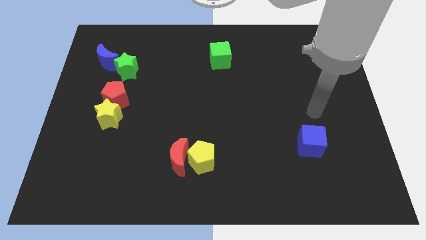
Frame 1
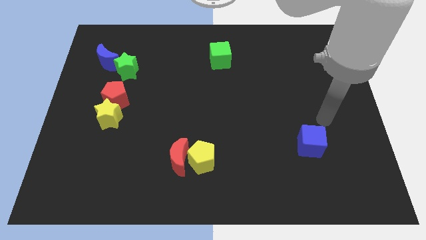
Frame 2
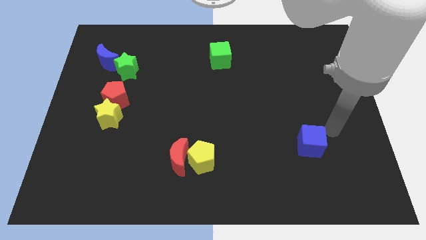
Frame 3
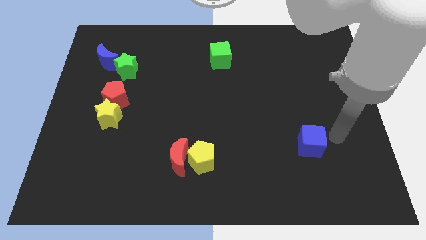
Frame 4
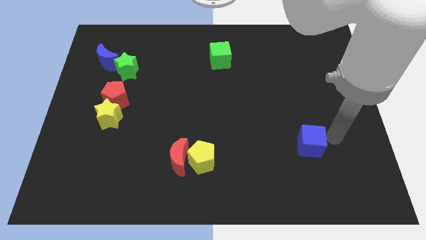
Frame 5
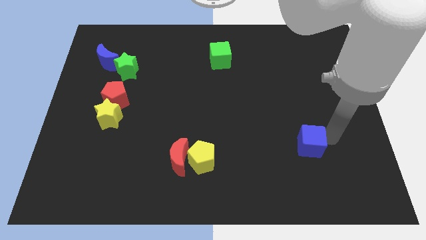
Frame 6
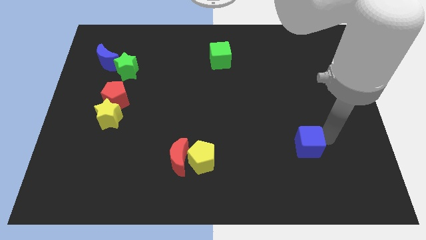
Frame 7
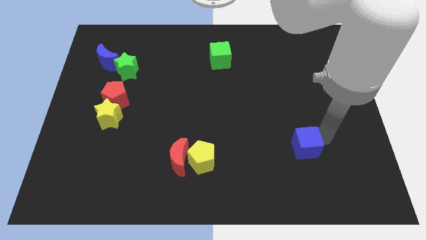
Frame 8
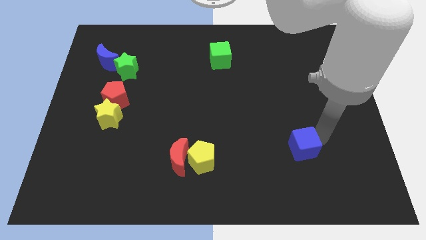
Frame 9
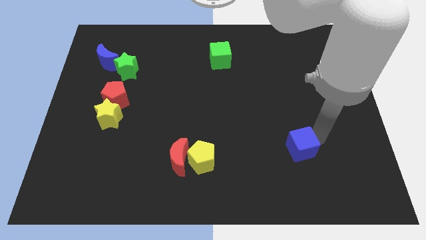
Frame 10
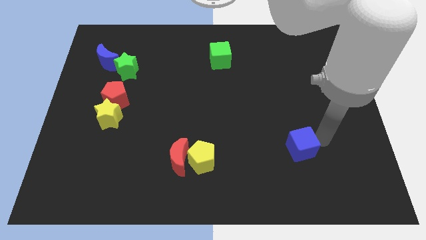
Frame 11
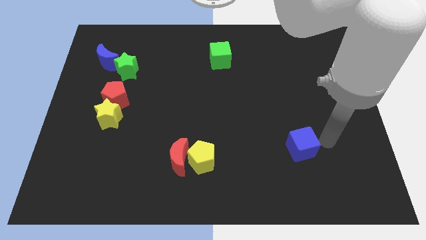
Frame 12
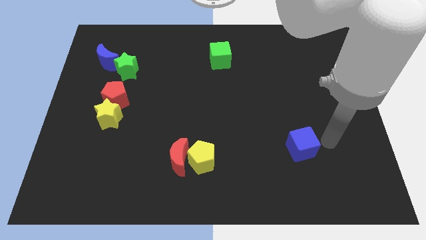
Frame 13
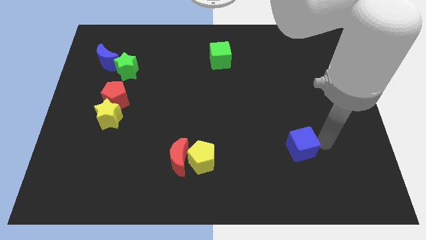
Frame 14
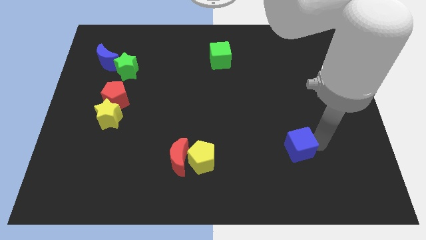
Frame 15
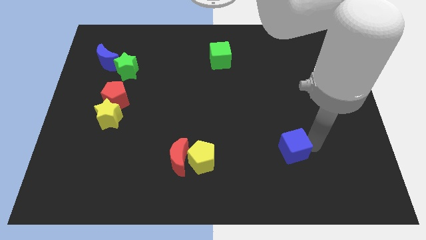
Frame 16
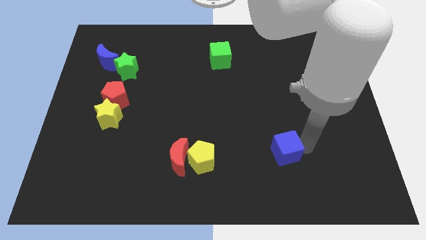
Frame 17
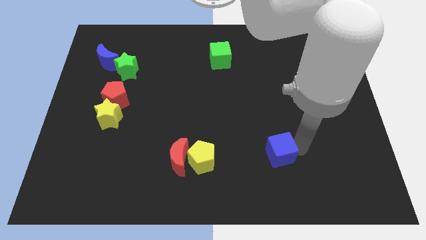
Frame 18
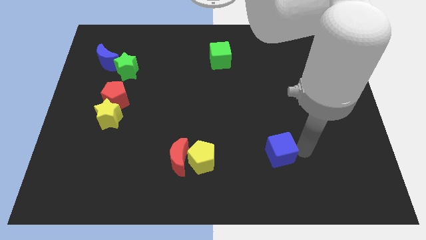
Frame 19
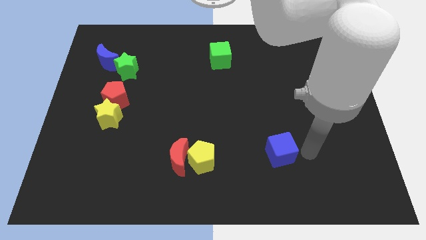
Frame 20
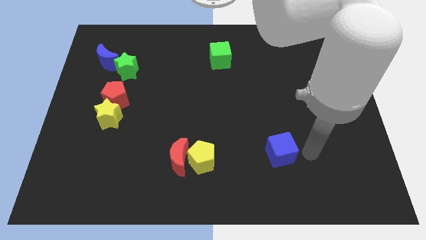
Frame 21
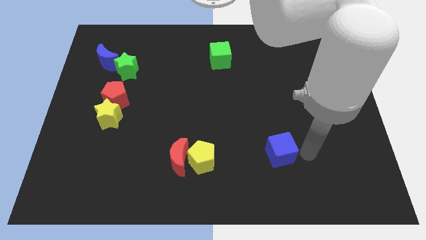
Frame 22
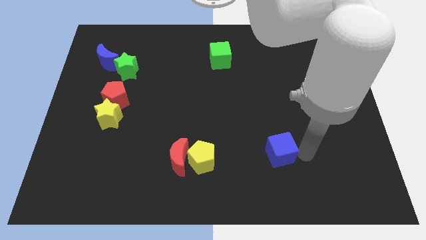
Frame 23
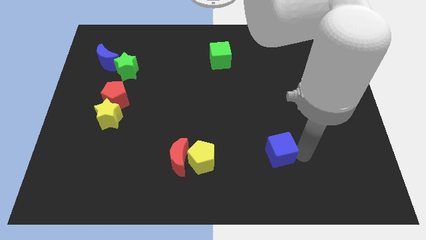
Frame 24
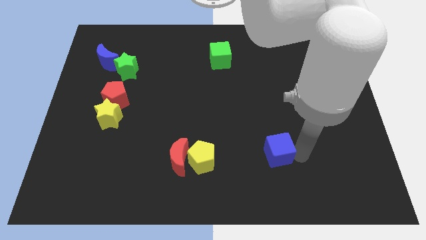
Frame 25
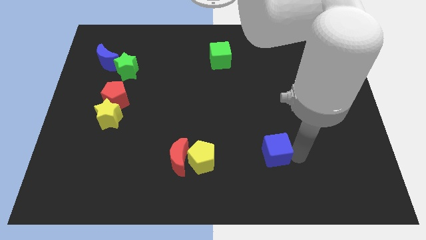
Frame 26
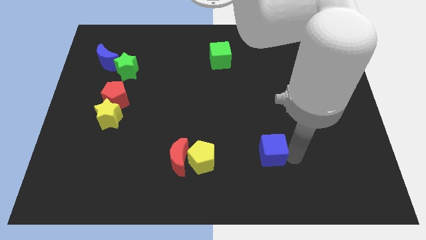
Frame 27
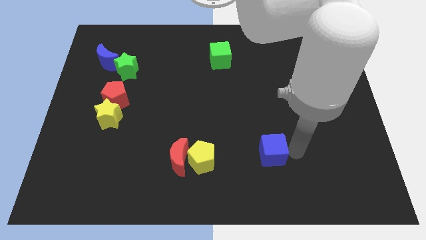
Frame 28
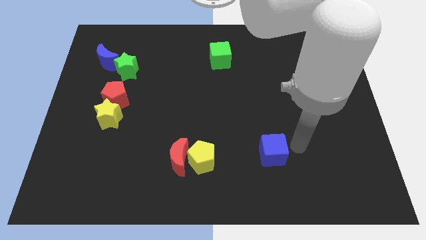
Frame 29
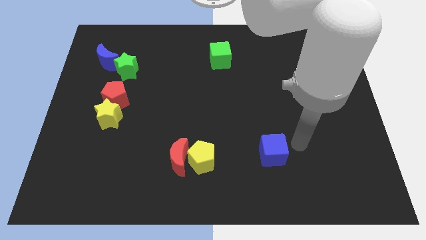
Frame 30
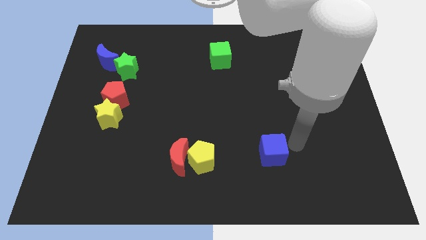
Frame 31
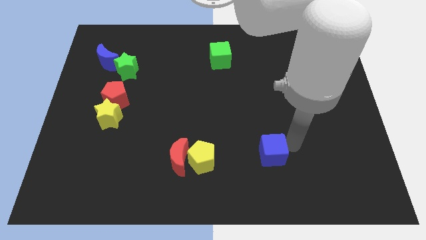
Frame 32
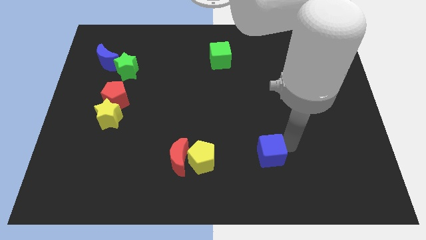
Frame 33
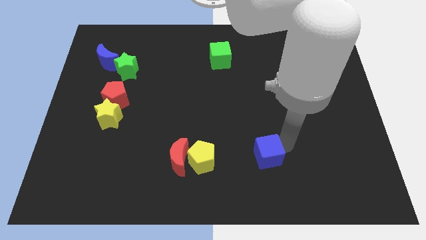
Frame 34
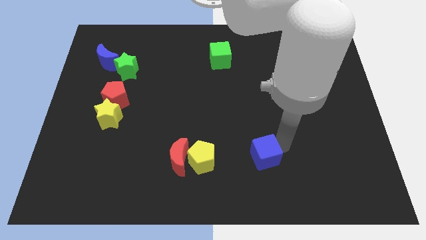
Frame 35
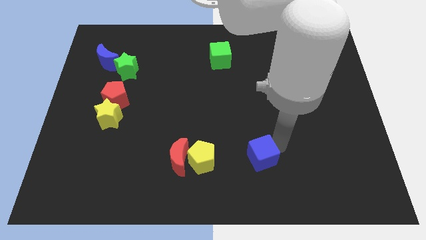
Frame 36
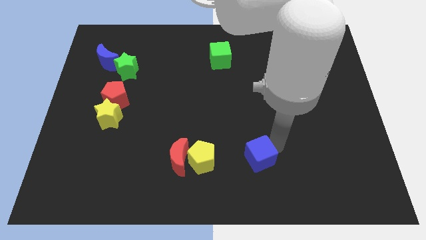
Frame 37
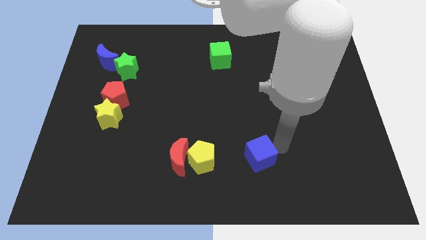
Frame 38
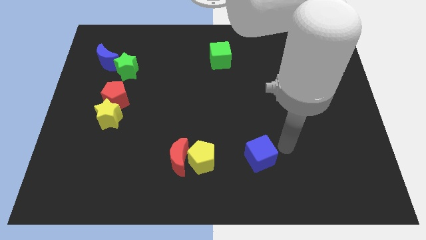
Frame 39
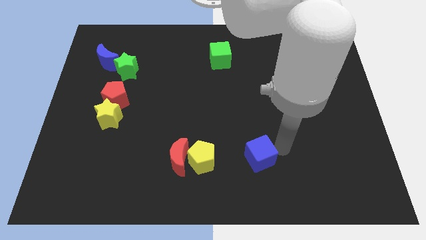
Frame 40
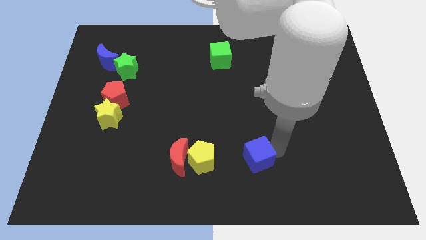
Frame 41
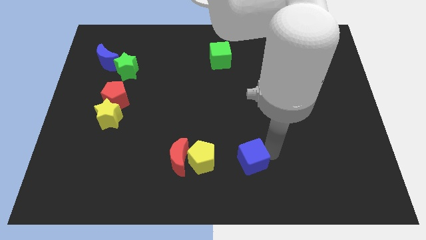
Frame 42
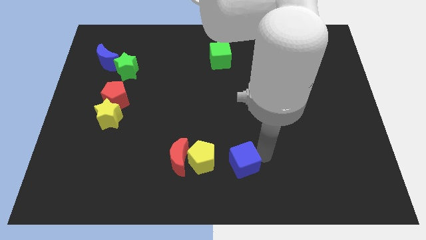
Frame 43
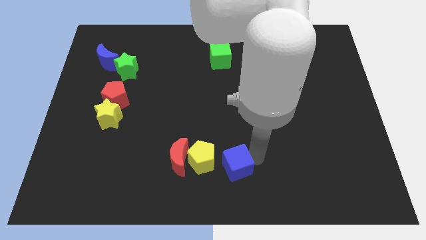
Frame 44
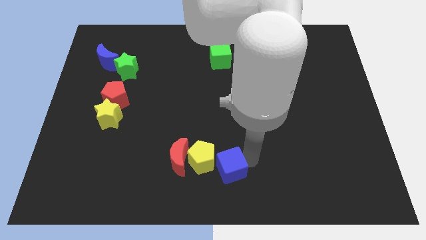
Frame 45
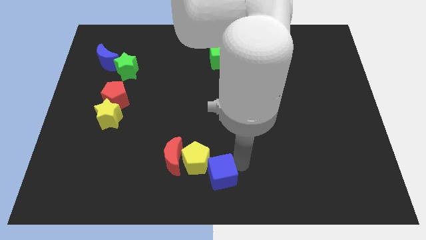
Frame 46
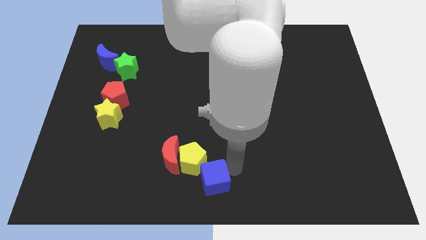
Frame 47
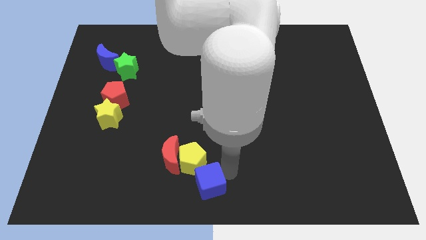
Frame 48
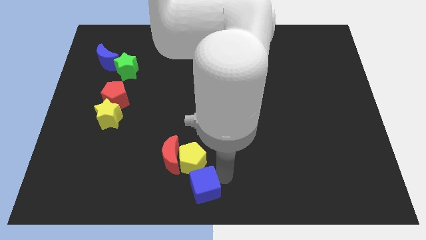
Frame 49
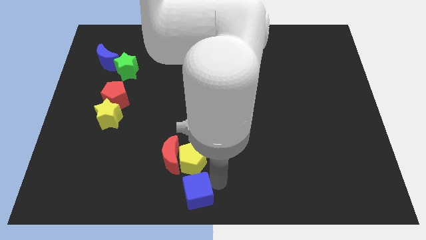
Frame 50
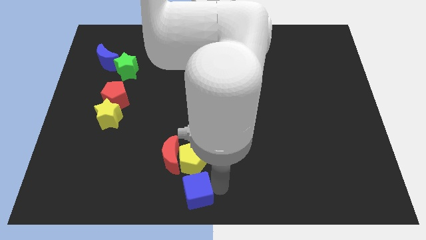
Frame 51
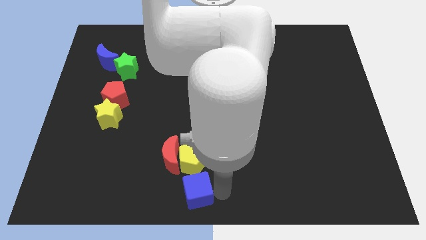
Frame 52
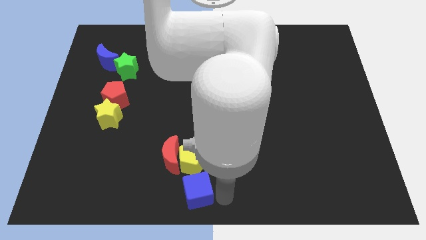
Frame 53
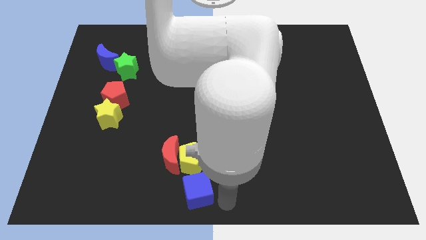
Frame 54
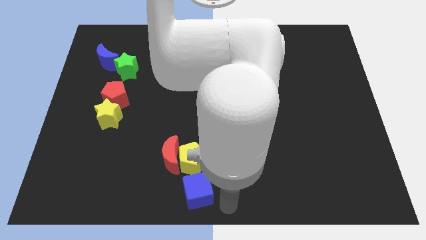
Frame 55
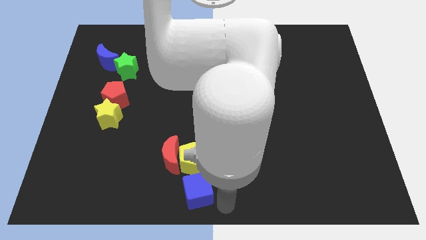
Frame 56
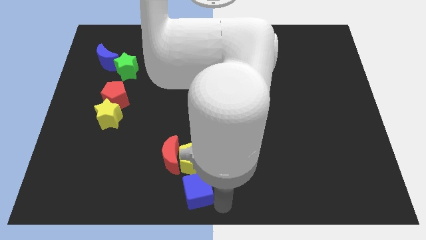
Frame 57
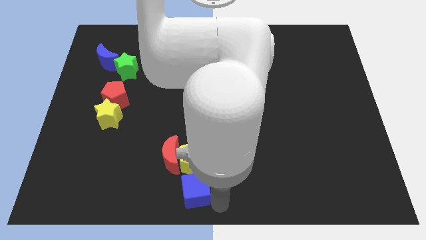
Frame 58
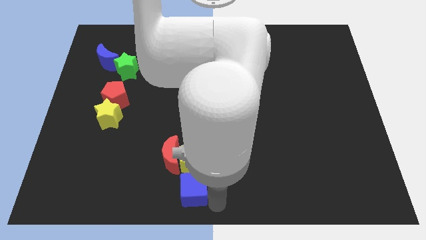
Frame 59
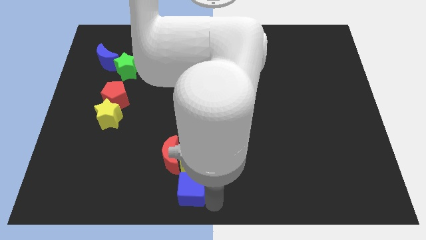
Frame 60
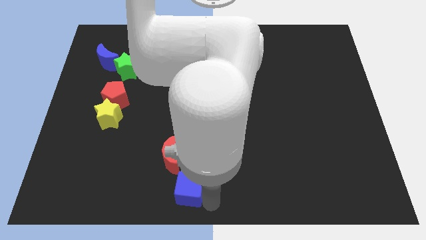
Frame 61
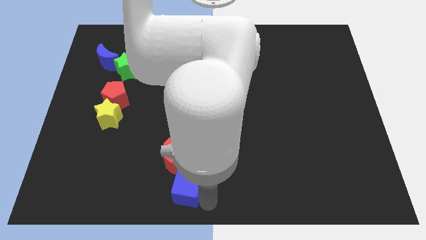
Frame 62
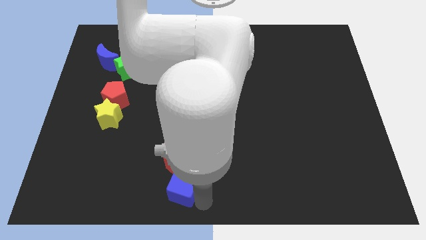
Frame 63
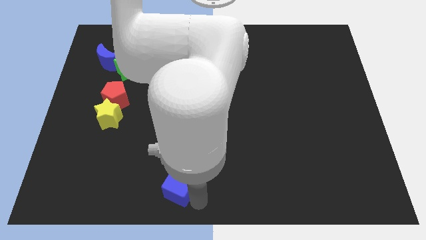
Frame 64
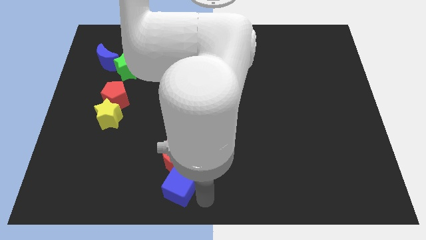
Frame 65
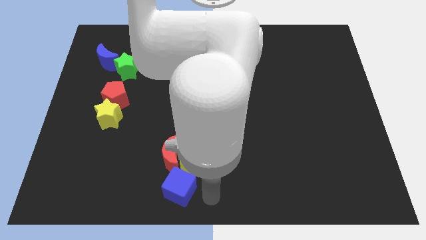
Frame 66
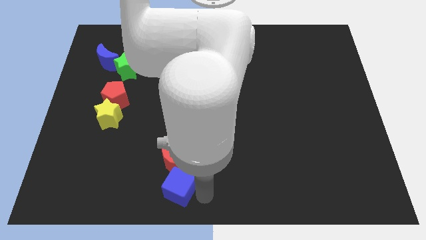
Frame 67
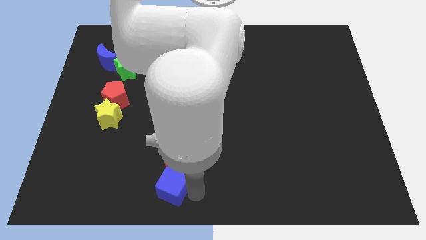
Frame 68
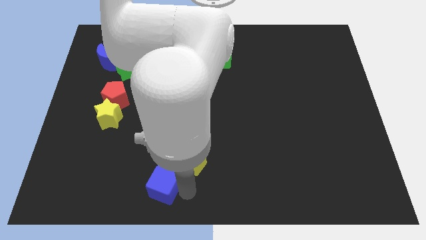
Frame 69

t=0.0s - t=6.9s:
push the blue cube diagonally down and to the left of the red moon
